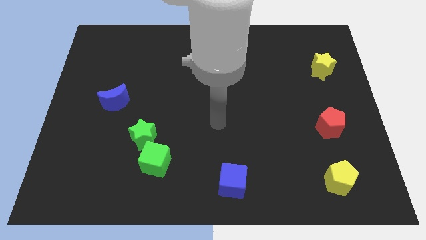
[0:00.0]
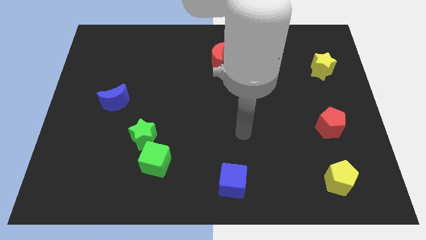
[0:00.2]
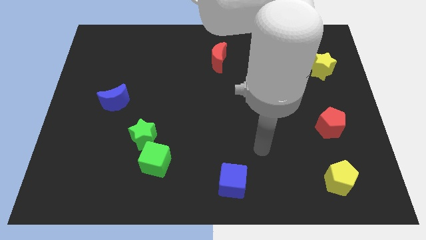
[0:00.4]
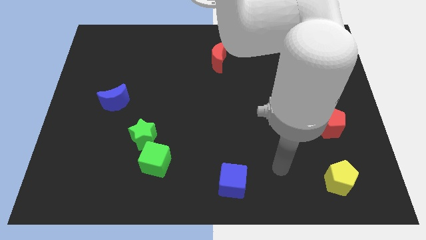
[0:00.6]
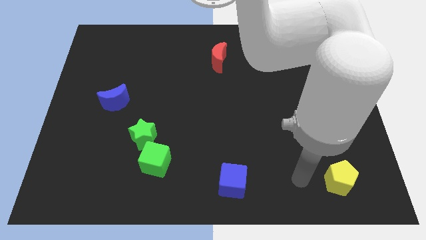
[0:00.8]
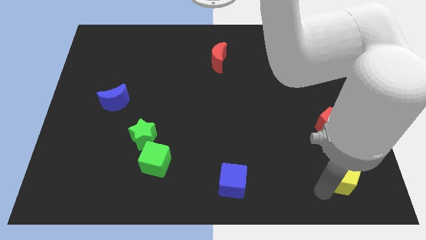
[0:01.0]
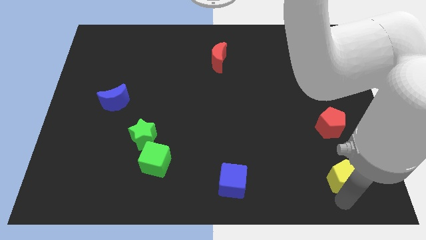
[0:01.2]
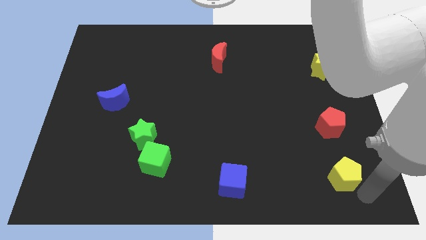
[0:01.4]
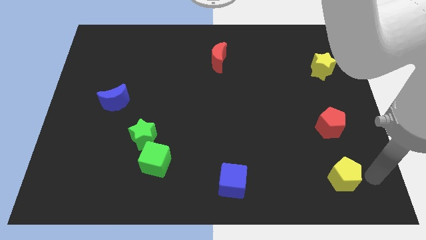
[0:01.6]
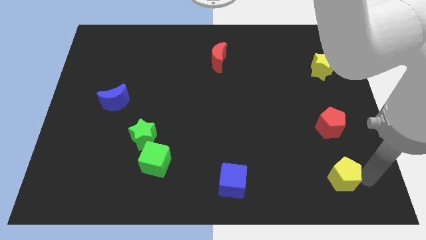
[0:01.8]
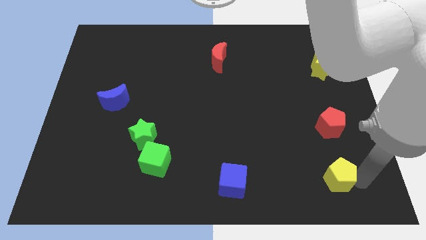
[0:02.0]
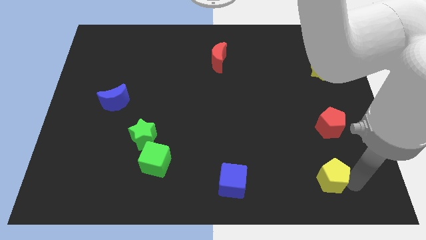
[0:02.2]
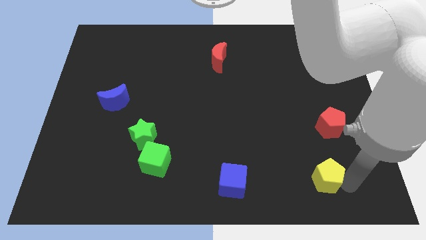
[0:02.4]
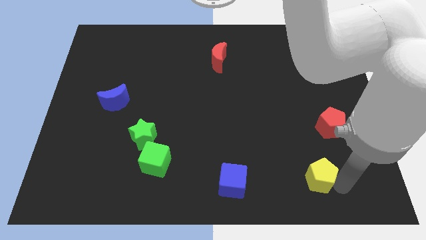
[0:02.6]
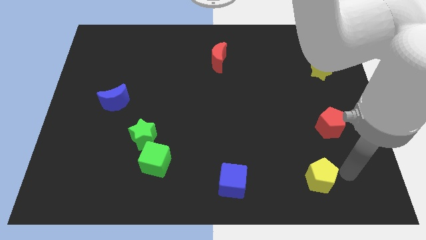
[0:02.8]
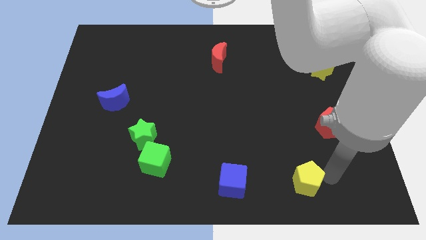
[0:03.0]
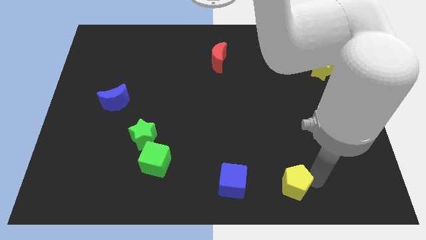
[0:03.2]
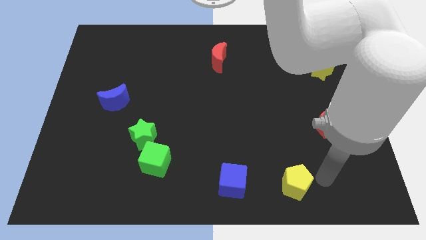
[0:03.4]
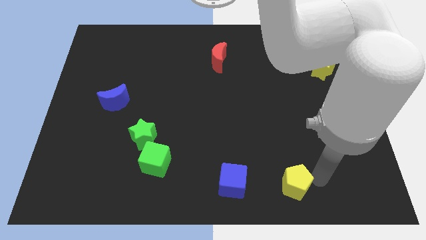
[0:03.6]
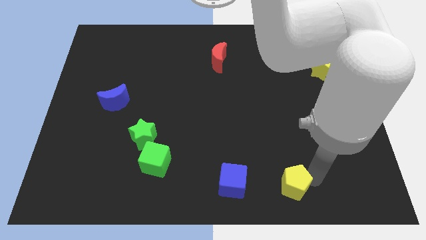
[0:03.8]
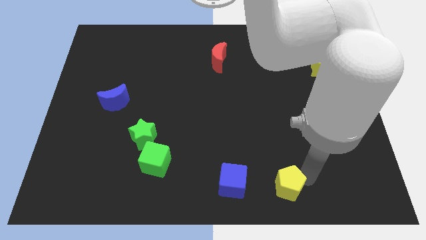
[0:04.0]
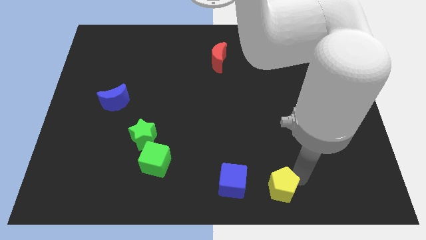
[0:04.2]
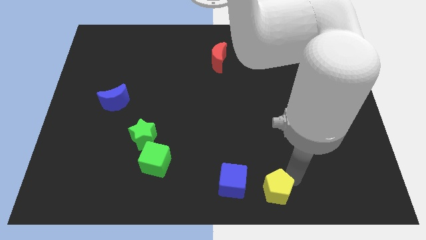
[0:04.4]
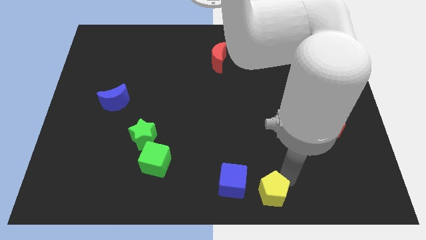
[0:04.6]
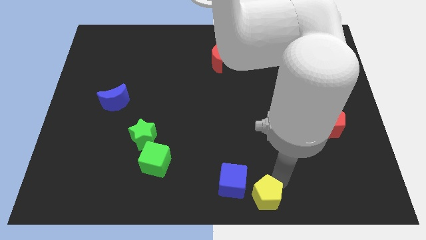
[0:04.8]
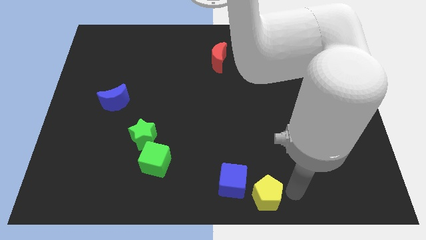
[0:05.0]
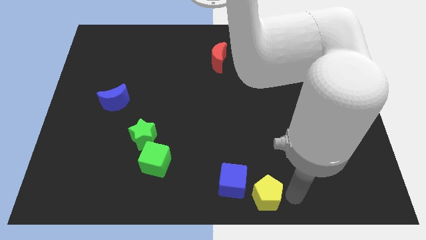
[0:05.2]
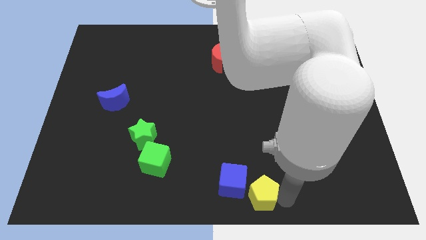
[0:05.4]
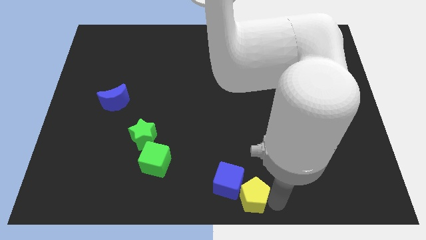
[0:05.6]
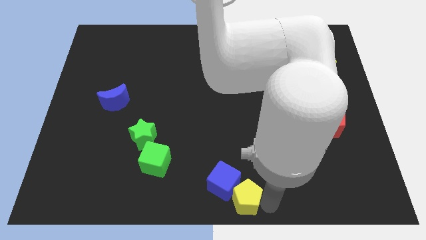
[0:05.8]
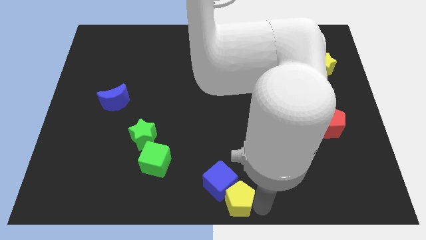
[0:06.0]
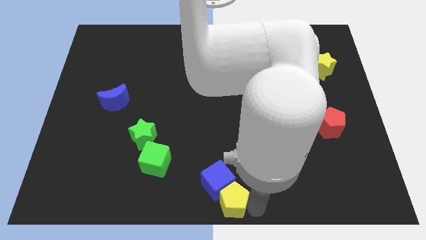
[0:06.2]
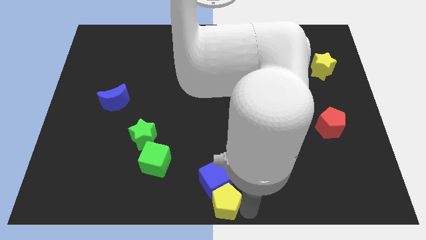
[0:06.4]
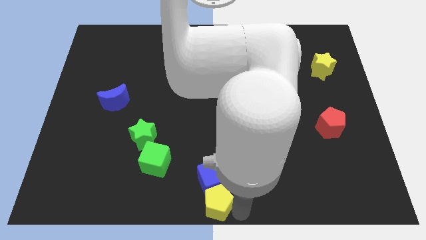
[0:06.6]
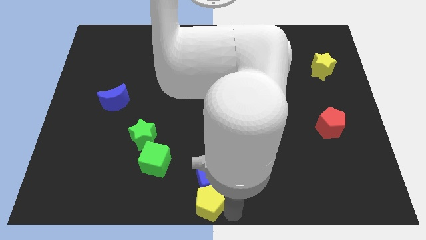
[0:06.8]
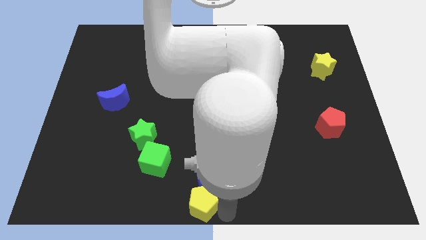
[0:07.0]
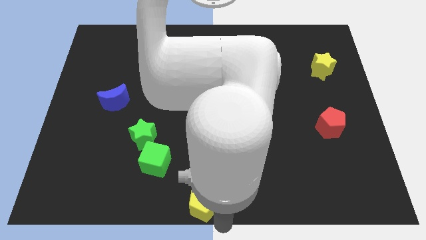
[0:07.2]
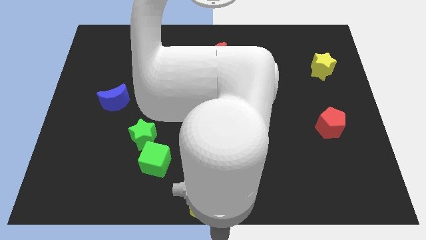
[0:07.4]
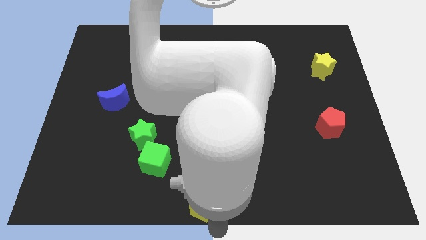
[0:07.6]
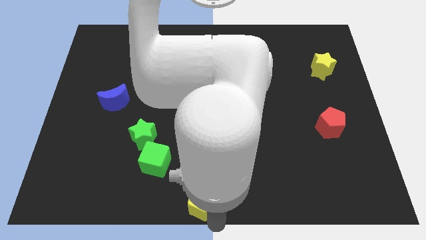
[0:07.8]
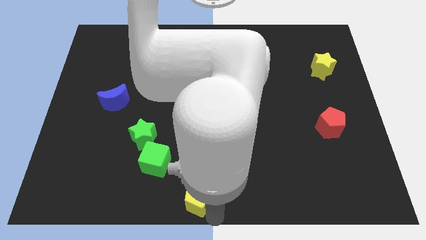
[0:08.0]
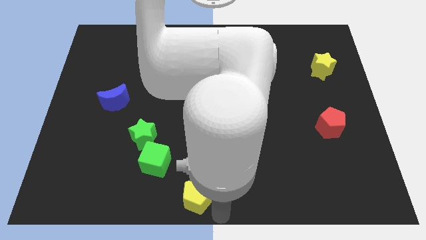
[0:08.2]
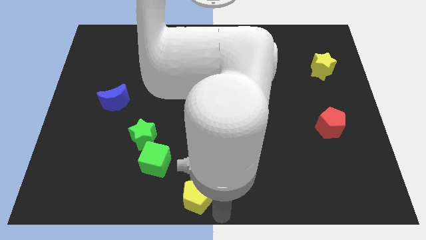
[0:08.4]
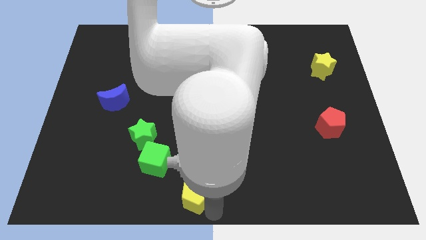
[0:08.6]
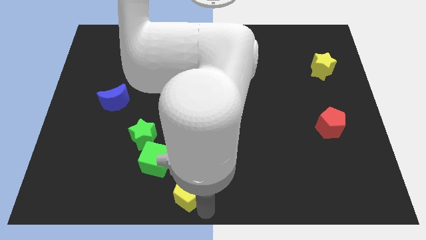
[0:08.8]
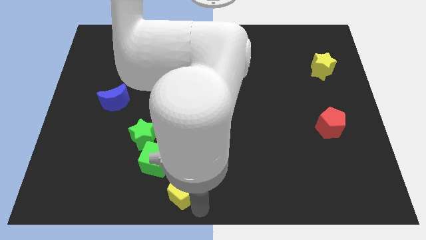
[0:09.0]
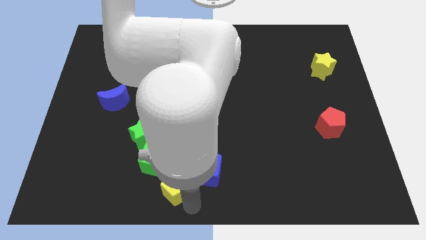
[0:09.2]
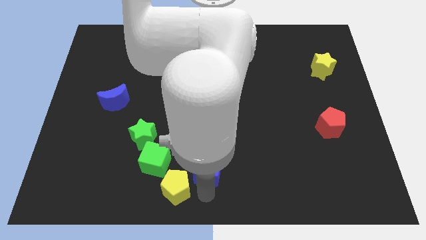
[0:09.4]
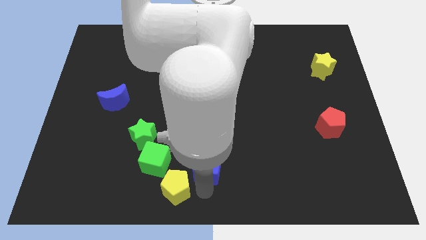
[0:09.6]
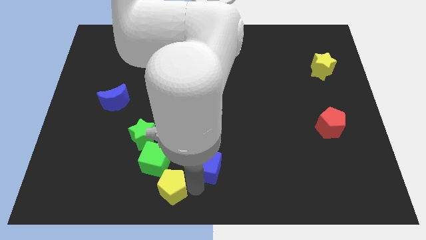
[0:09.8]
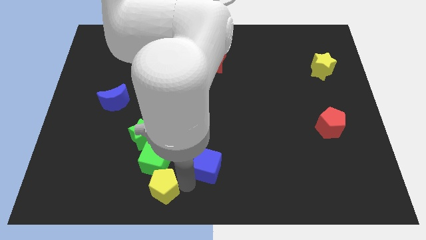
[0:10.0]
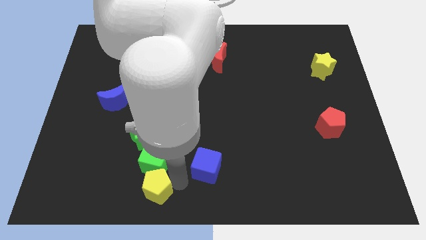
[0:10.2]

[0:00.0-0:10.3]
move the yellow pentagon to the bottom left of the green cube

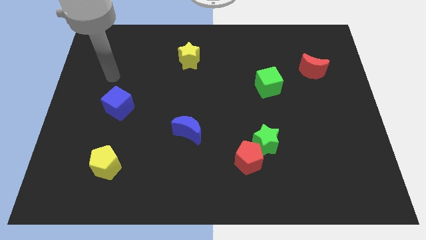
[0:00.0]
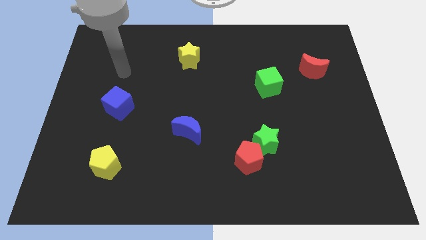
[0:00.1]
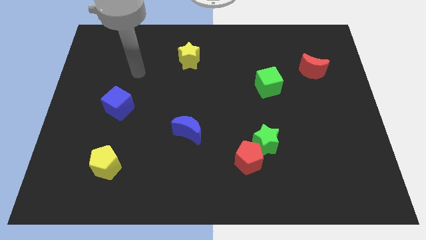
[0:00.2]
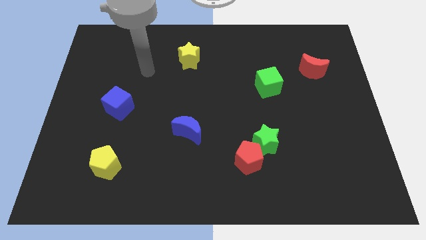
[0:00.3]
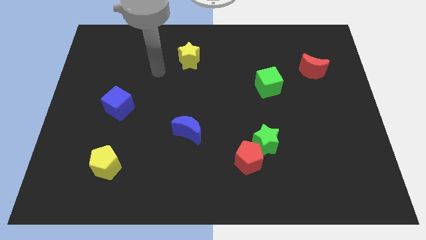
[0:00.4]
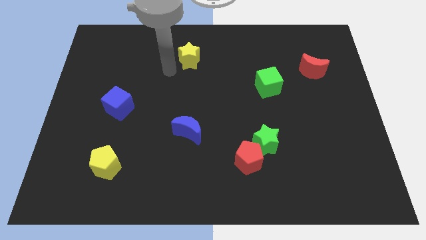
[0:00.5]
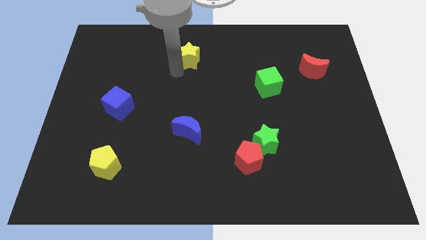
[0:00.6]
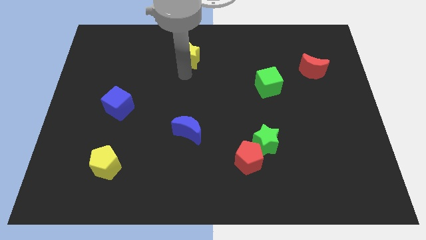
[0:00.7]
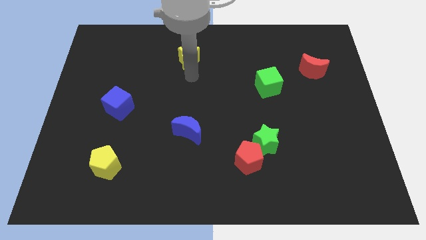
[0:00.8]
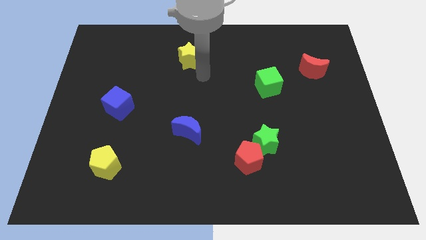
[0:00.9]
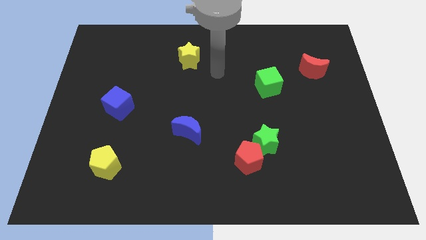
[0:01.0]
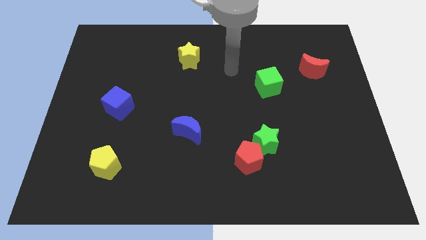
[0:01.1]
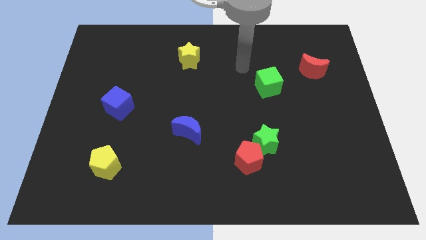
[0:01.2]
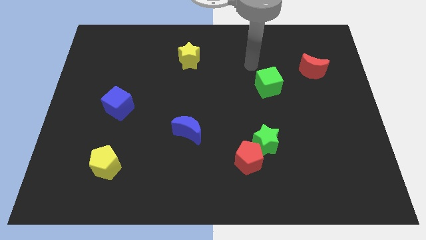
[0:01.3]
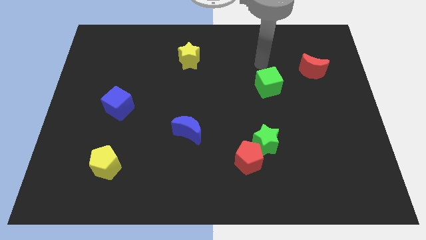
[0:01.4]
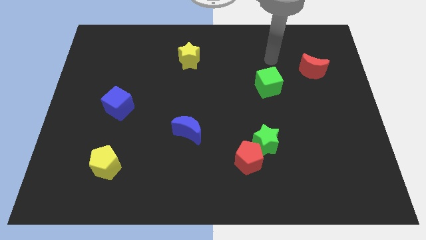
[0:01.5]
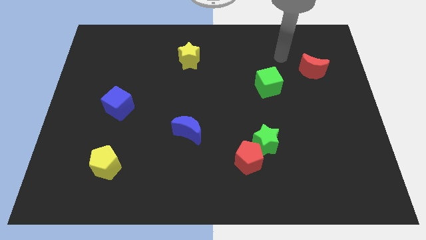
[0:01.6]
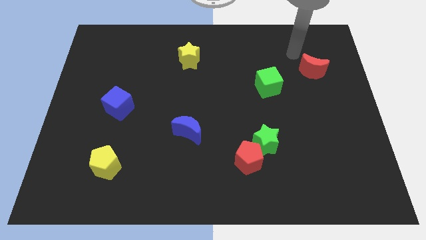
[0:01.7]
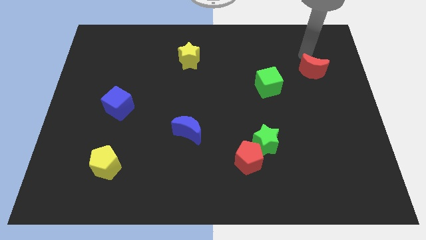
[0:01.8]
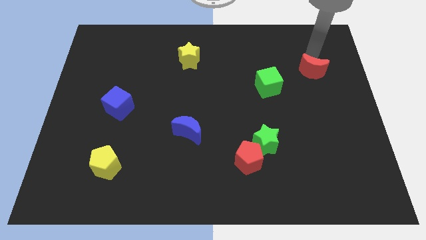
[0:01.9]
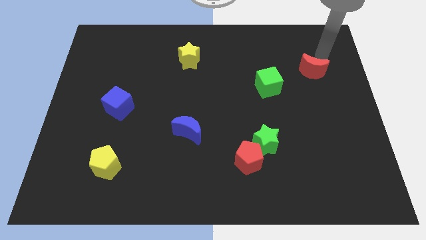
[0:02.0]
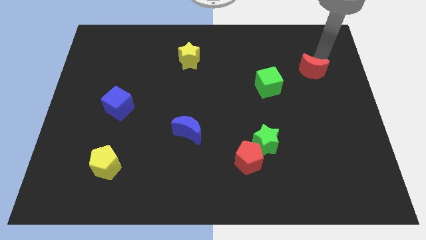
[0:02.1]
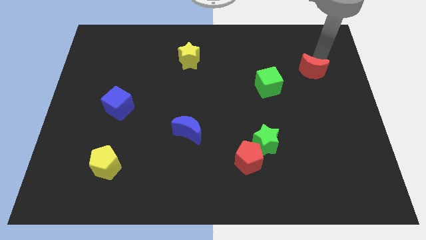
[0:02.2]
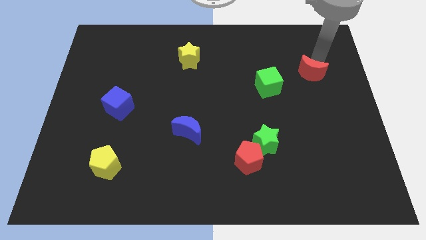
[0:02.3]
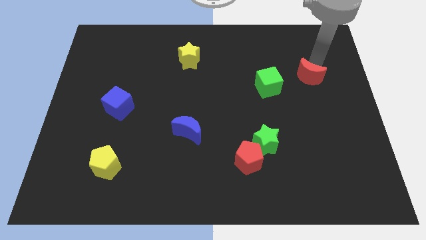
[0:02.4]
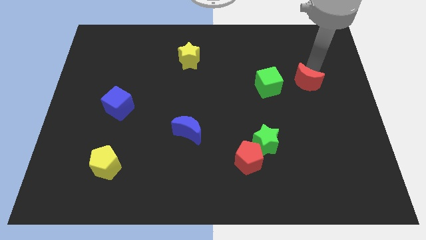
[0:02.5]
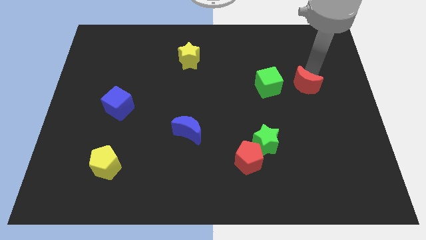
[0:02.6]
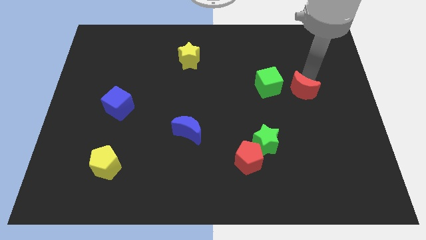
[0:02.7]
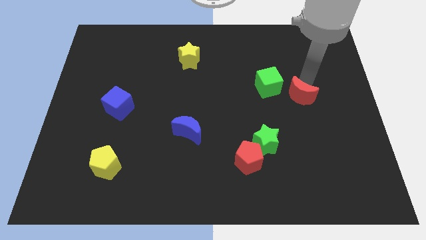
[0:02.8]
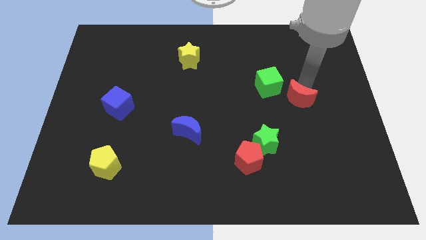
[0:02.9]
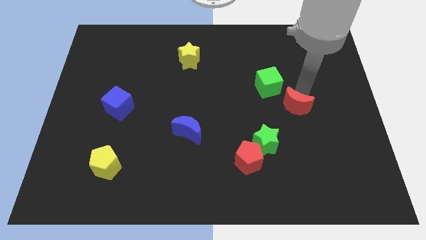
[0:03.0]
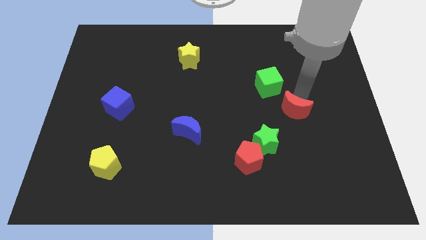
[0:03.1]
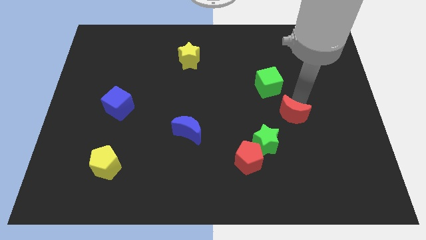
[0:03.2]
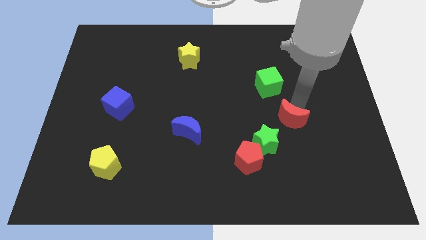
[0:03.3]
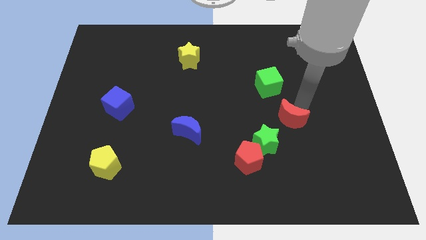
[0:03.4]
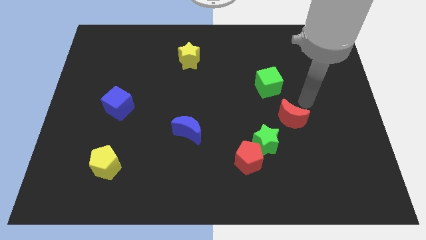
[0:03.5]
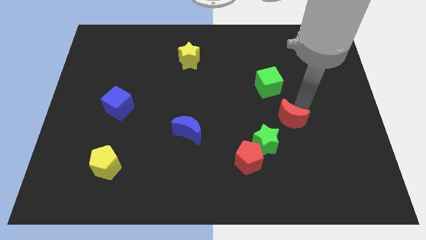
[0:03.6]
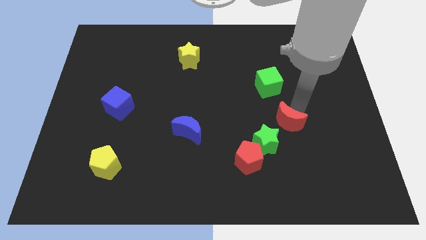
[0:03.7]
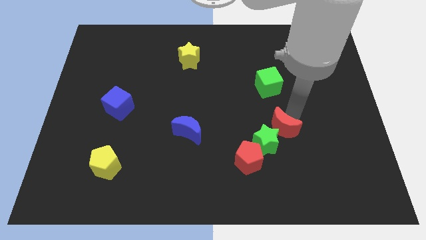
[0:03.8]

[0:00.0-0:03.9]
push the red moon diagonally up and to the right of the red pentagon
